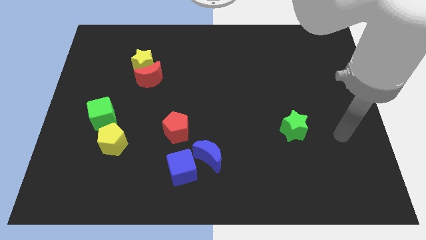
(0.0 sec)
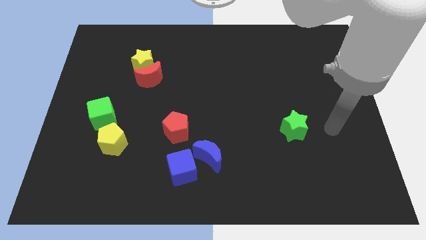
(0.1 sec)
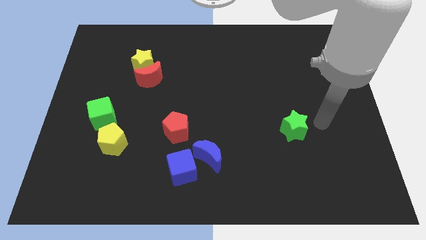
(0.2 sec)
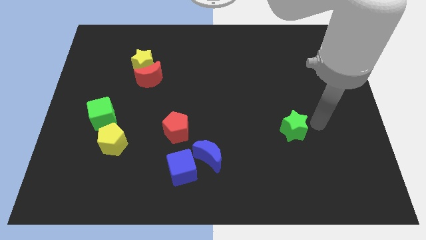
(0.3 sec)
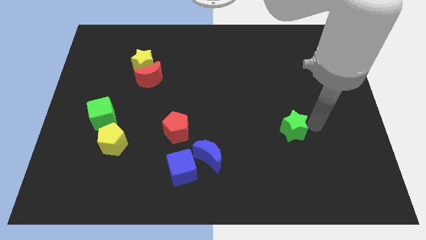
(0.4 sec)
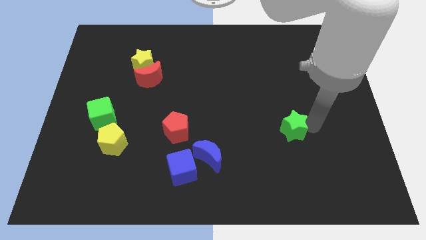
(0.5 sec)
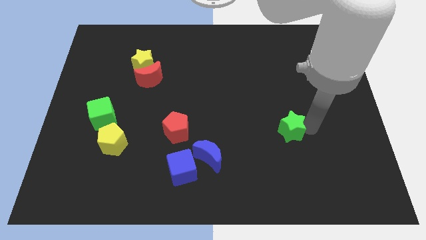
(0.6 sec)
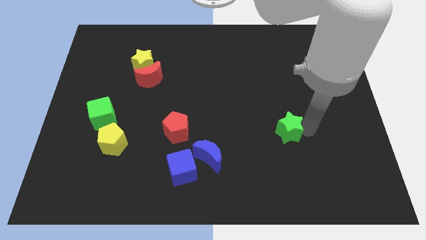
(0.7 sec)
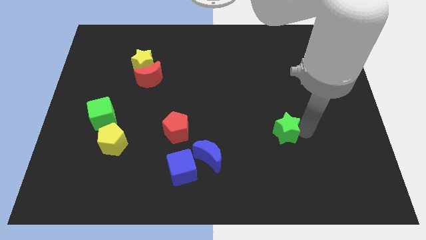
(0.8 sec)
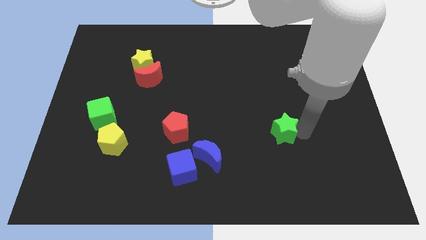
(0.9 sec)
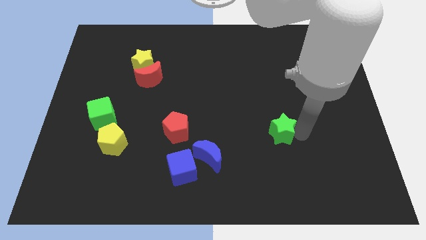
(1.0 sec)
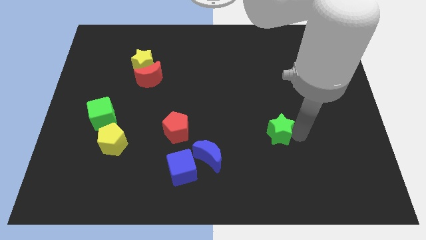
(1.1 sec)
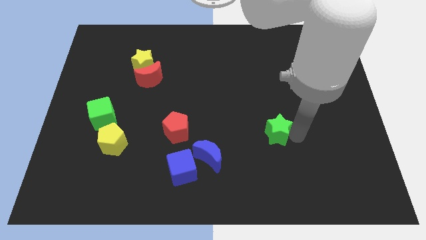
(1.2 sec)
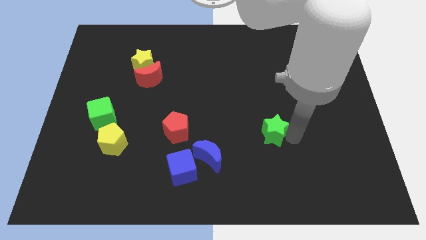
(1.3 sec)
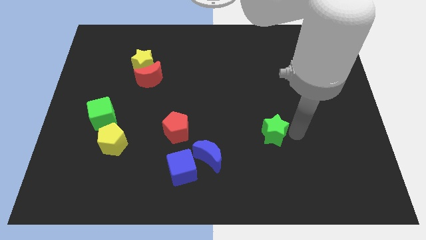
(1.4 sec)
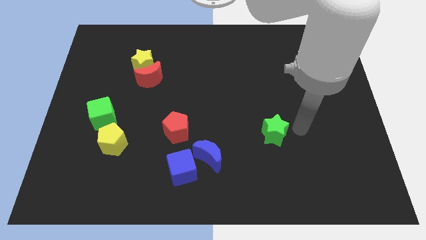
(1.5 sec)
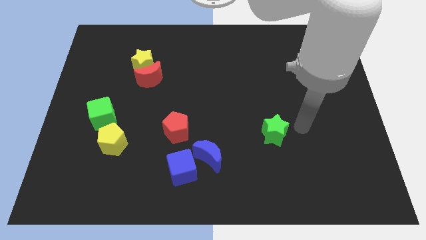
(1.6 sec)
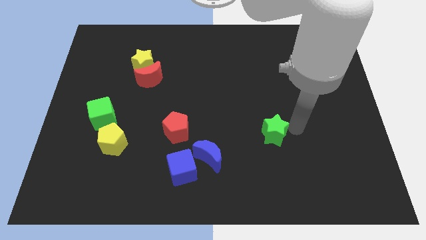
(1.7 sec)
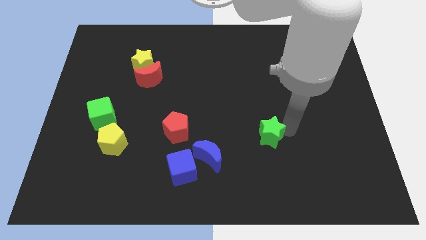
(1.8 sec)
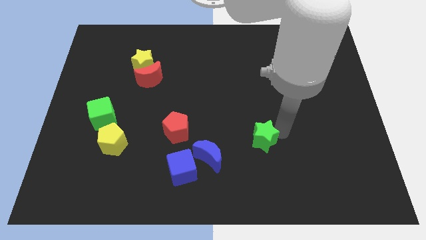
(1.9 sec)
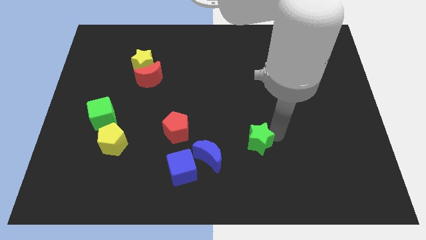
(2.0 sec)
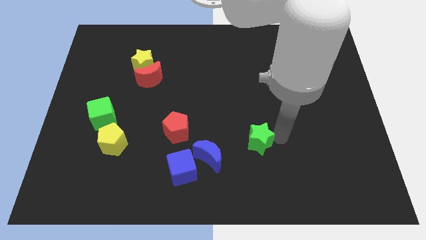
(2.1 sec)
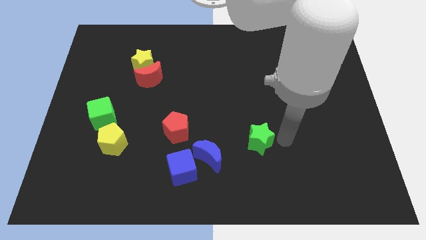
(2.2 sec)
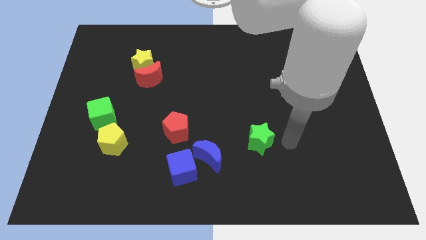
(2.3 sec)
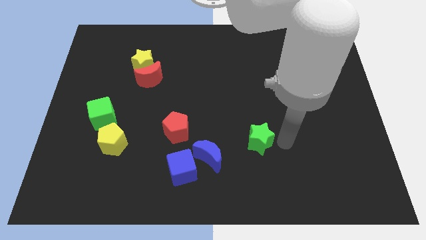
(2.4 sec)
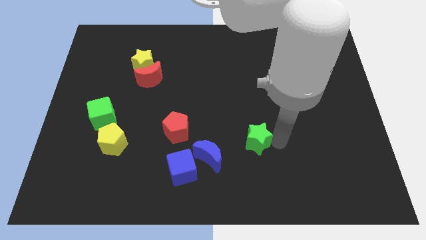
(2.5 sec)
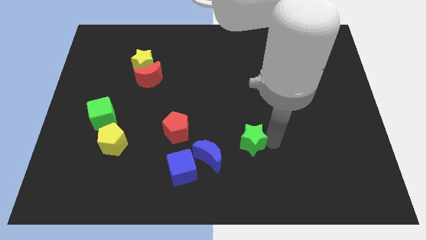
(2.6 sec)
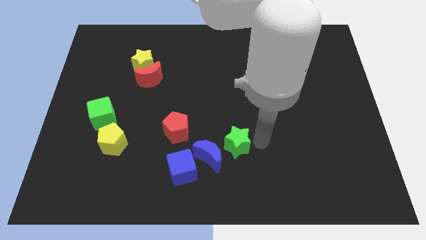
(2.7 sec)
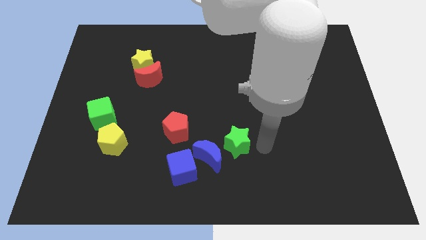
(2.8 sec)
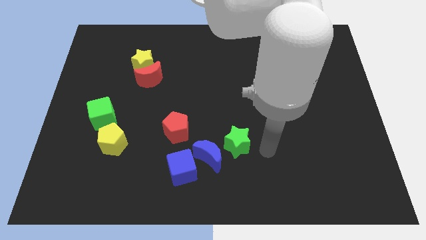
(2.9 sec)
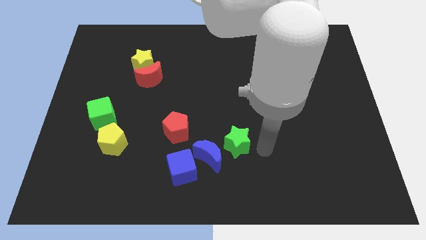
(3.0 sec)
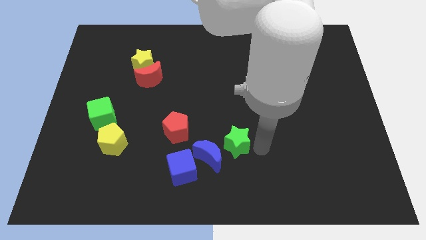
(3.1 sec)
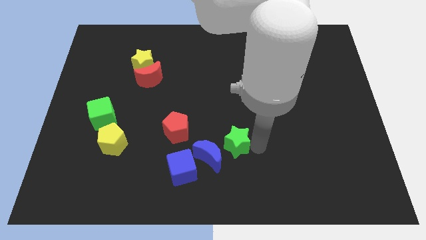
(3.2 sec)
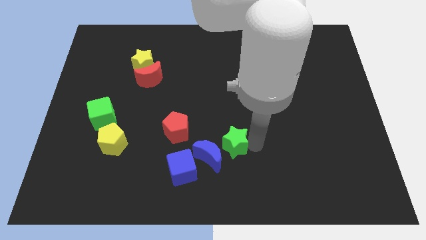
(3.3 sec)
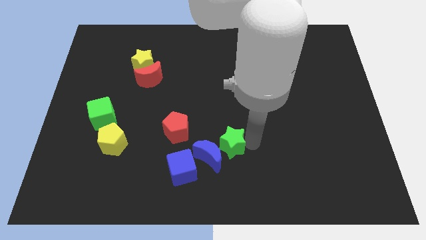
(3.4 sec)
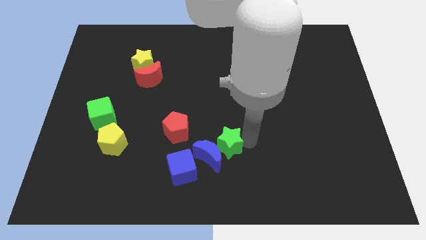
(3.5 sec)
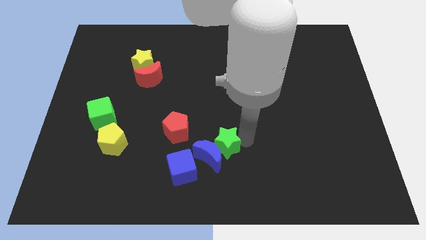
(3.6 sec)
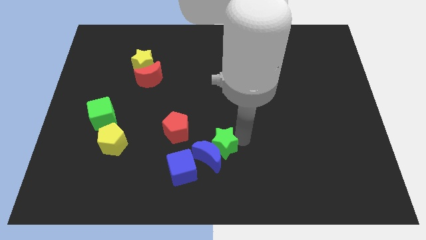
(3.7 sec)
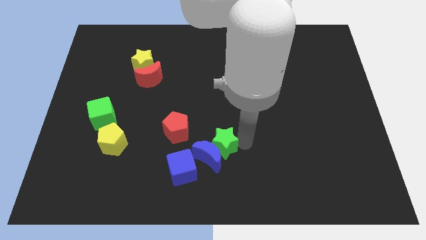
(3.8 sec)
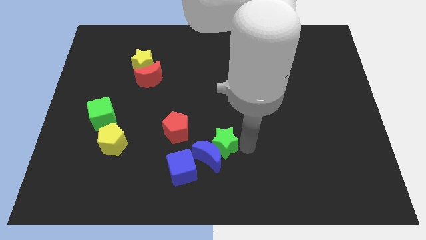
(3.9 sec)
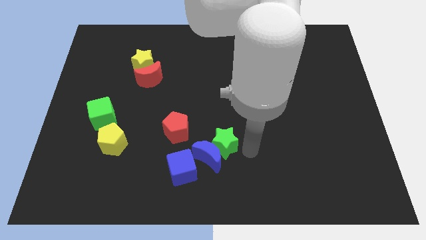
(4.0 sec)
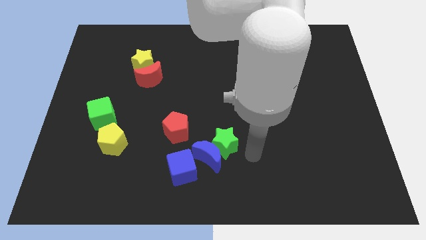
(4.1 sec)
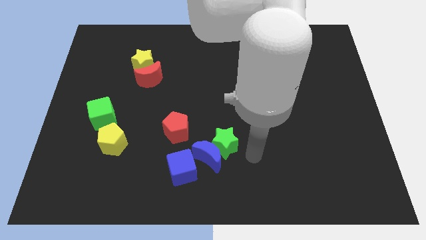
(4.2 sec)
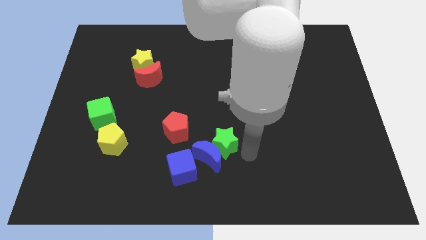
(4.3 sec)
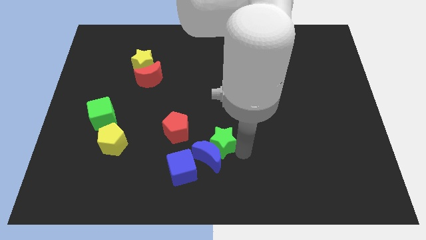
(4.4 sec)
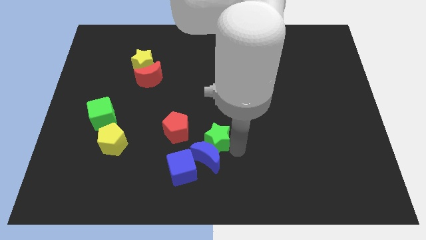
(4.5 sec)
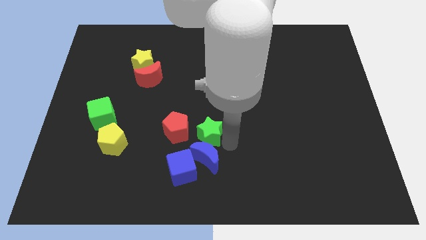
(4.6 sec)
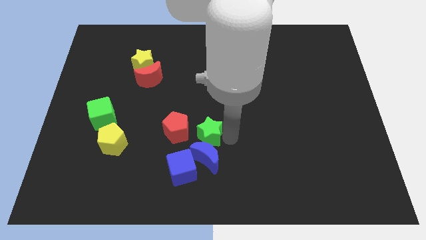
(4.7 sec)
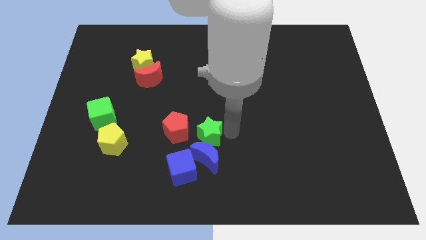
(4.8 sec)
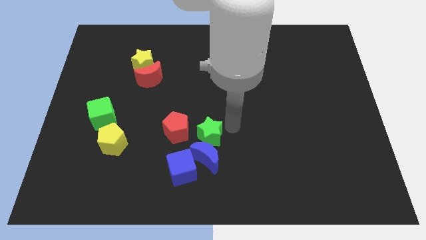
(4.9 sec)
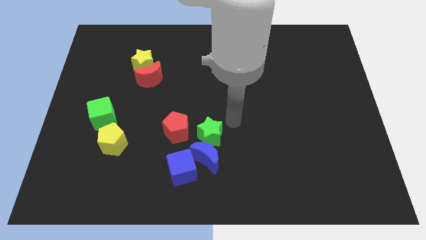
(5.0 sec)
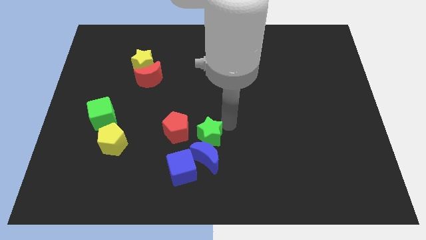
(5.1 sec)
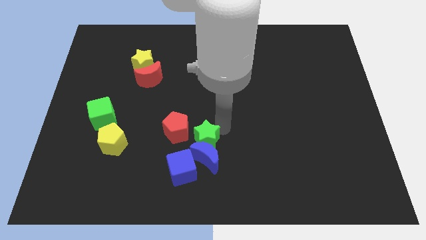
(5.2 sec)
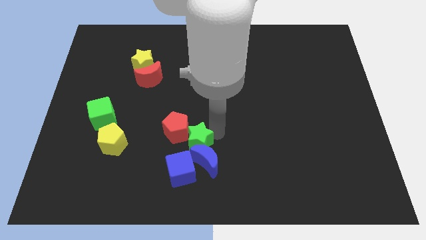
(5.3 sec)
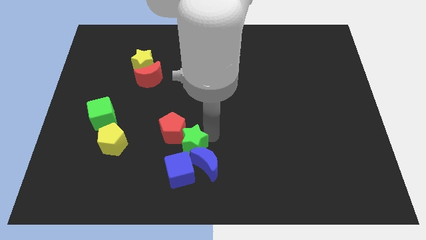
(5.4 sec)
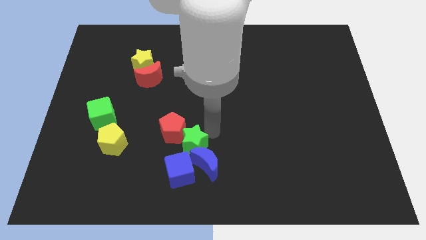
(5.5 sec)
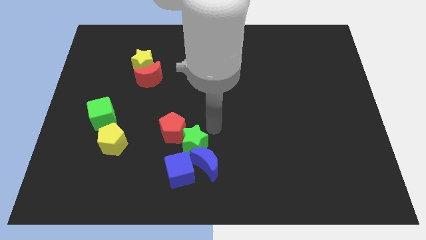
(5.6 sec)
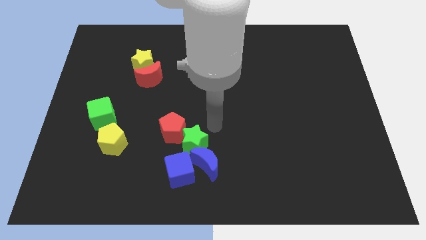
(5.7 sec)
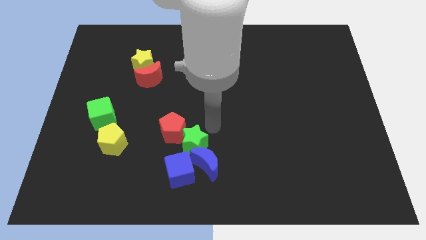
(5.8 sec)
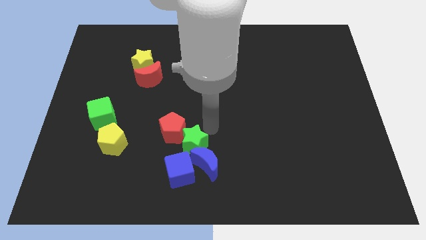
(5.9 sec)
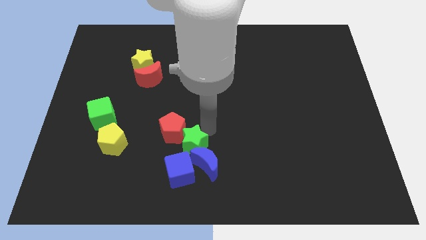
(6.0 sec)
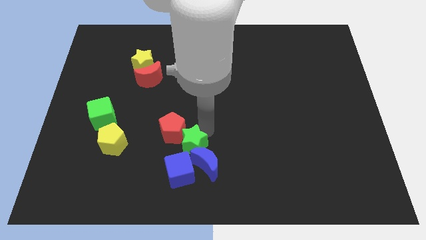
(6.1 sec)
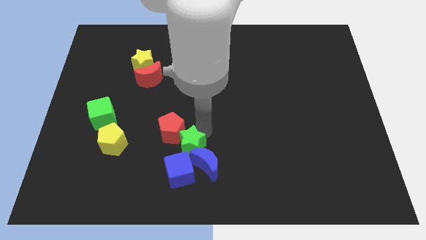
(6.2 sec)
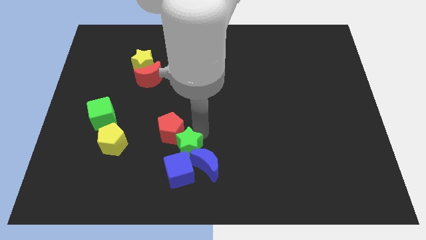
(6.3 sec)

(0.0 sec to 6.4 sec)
push the green star towards the blue cube
